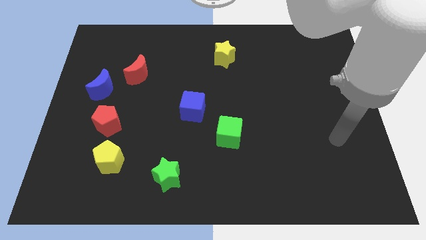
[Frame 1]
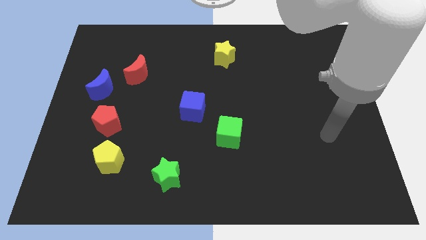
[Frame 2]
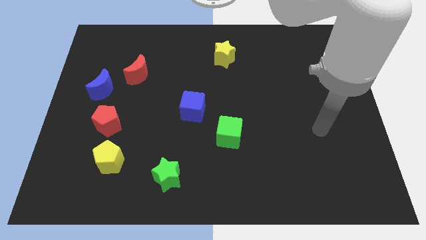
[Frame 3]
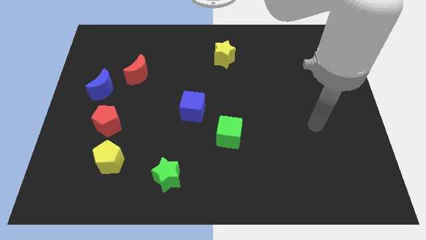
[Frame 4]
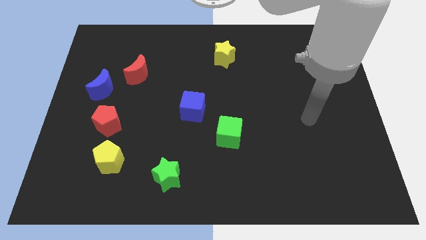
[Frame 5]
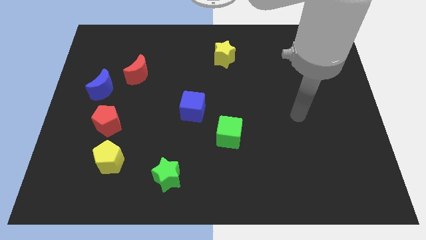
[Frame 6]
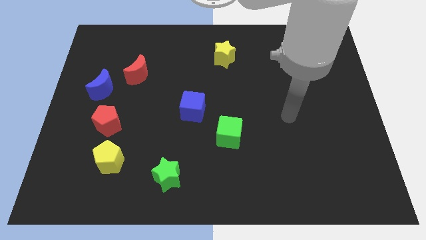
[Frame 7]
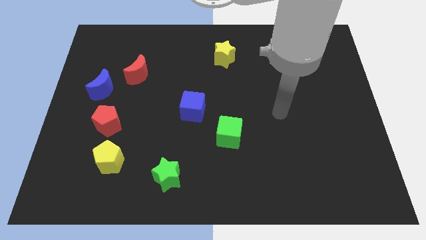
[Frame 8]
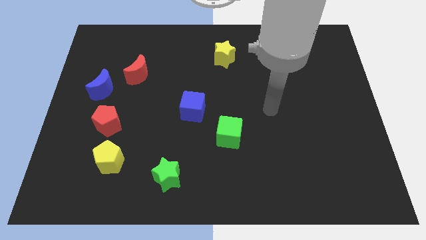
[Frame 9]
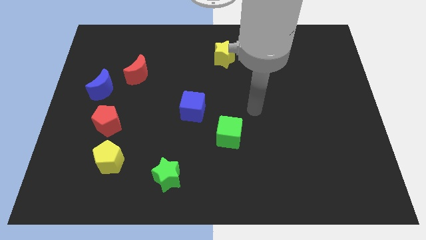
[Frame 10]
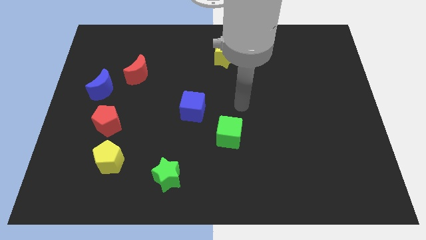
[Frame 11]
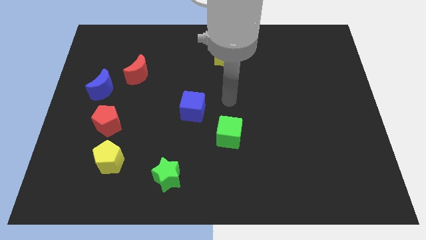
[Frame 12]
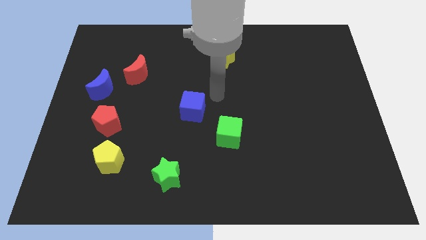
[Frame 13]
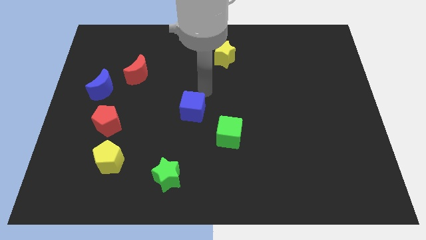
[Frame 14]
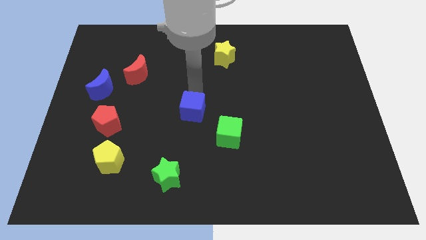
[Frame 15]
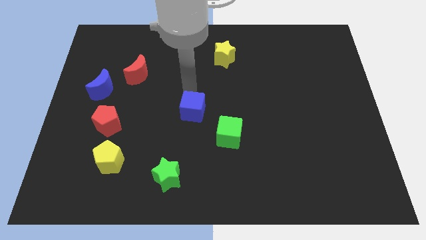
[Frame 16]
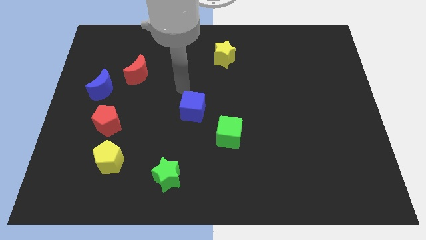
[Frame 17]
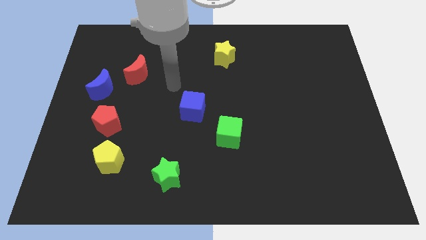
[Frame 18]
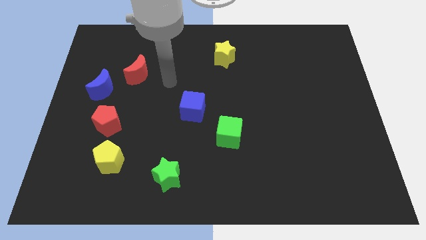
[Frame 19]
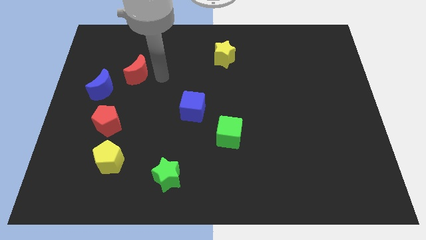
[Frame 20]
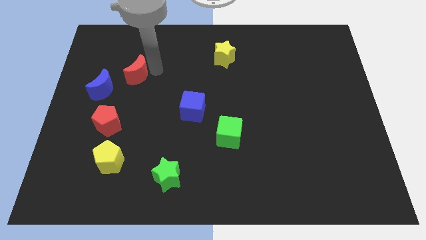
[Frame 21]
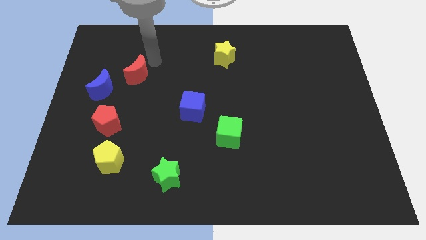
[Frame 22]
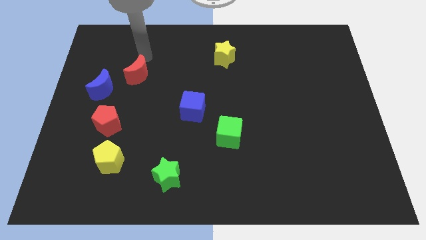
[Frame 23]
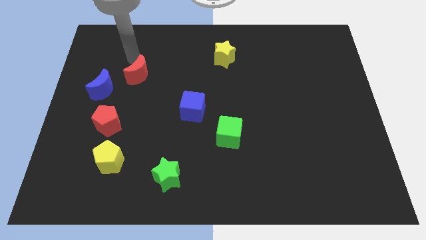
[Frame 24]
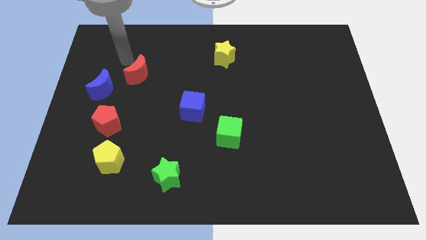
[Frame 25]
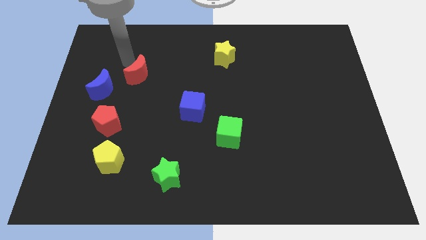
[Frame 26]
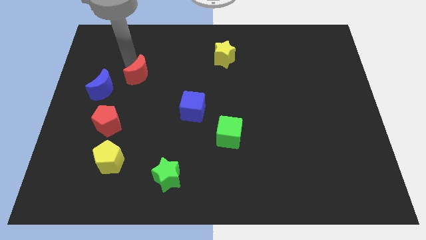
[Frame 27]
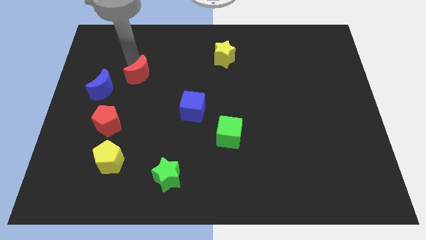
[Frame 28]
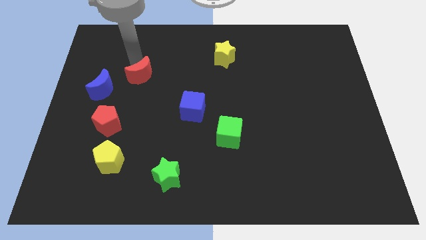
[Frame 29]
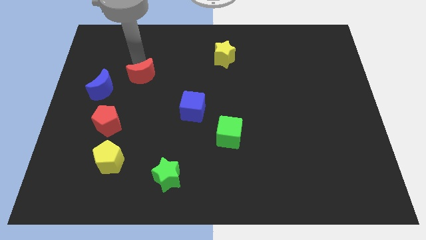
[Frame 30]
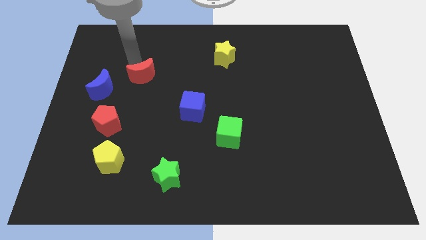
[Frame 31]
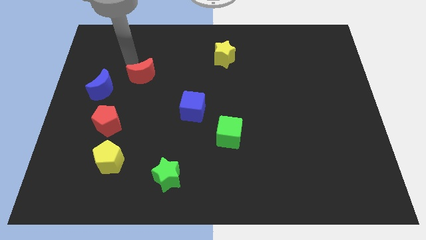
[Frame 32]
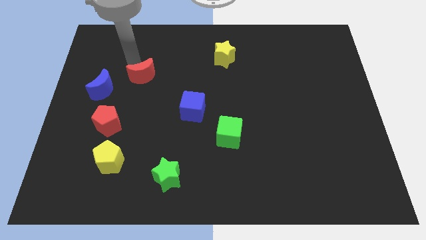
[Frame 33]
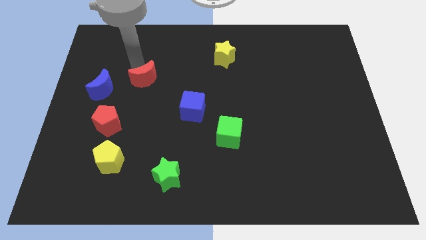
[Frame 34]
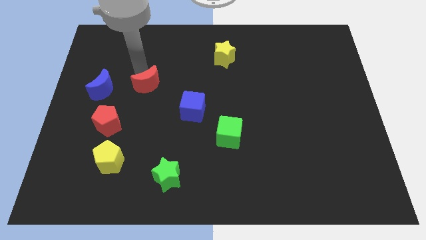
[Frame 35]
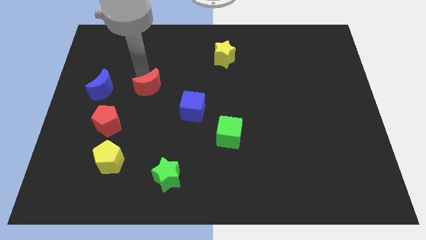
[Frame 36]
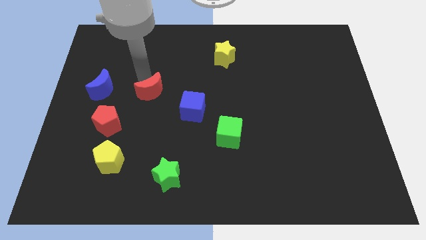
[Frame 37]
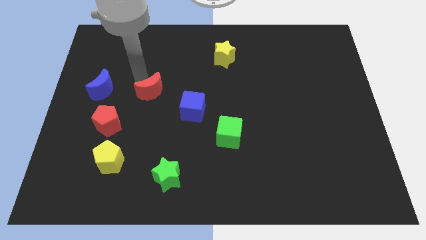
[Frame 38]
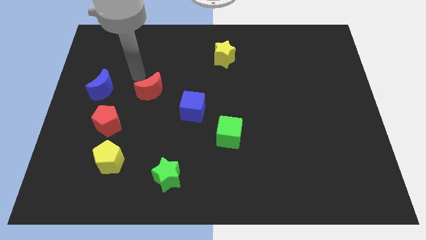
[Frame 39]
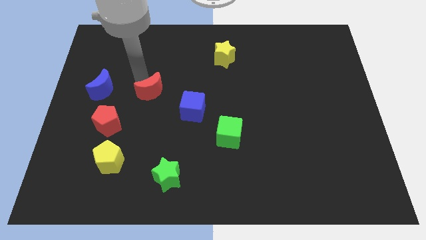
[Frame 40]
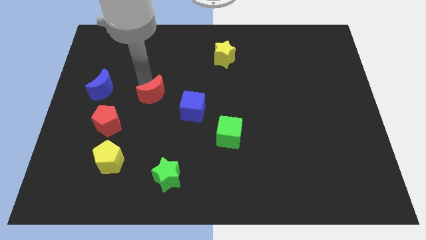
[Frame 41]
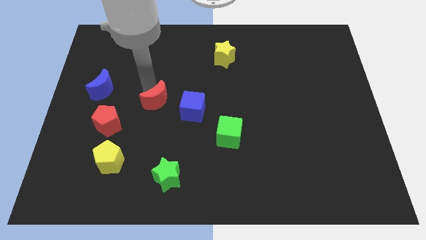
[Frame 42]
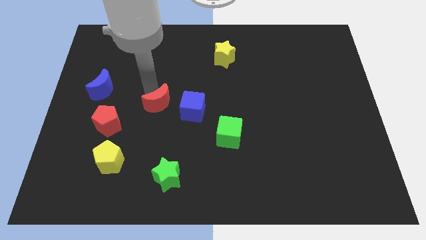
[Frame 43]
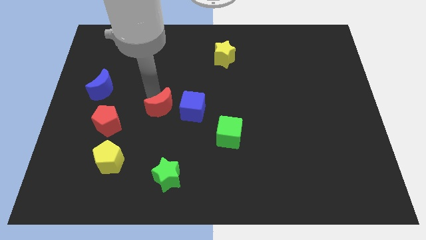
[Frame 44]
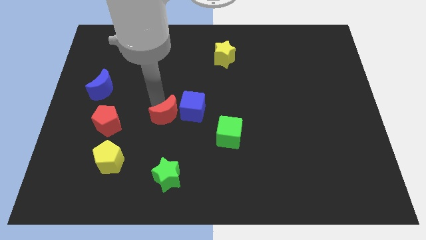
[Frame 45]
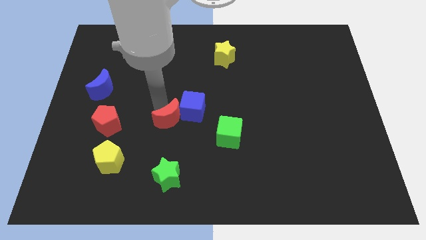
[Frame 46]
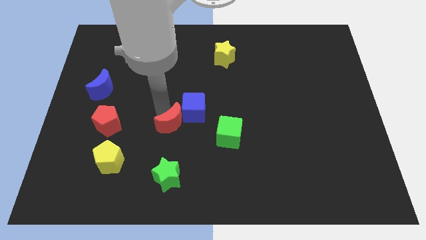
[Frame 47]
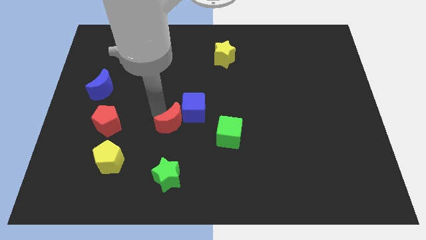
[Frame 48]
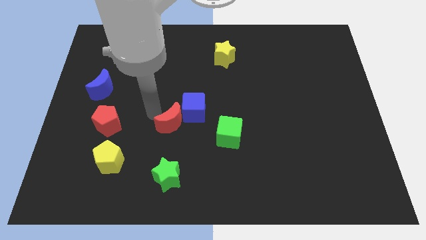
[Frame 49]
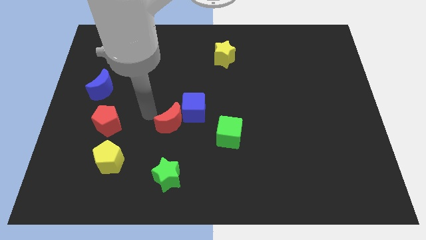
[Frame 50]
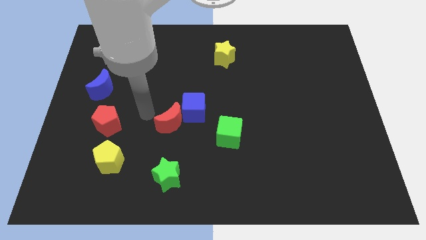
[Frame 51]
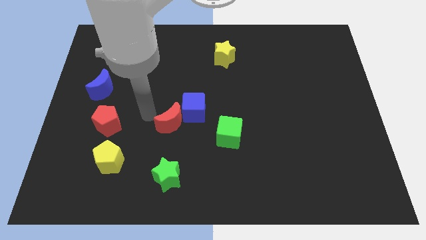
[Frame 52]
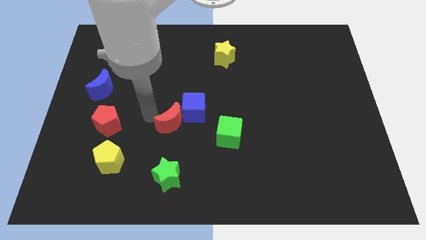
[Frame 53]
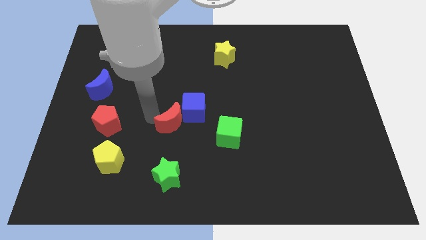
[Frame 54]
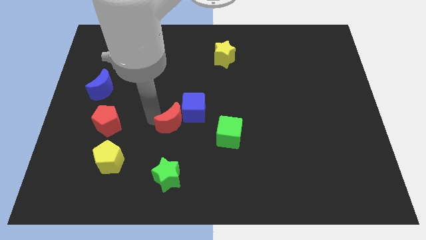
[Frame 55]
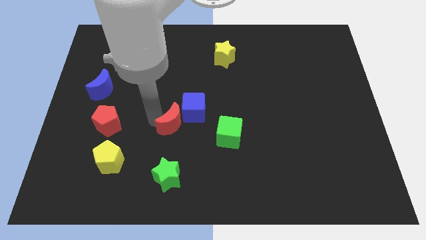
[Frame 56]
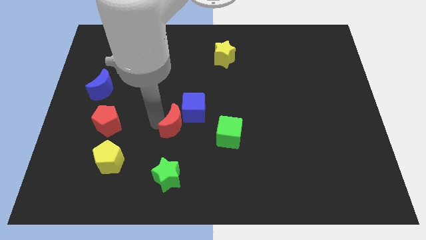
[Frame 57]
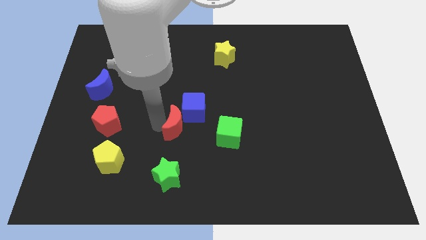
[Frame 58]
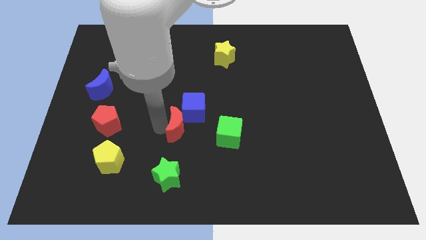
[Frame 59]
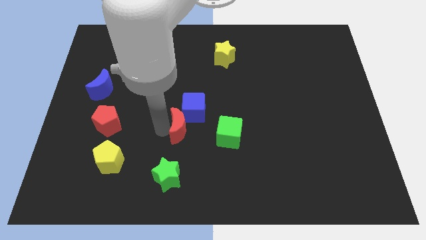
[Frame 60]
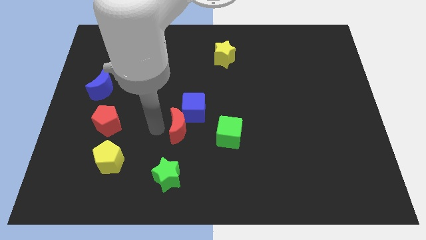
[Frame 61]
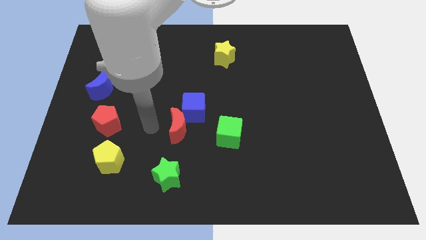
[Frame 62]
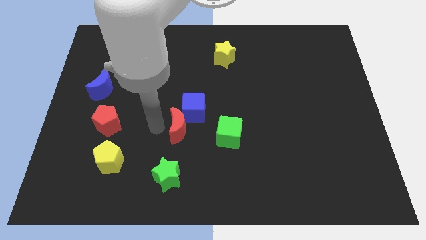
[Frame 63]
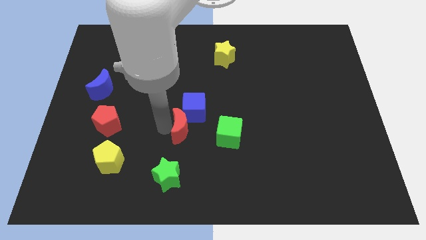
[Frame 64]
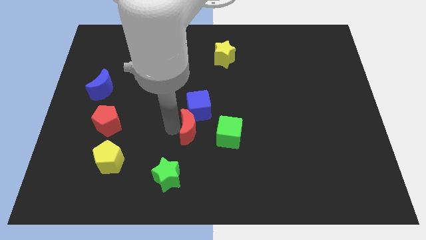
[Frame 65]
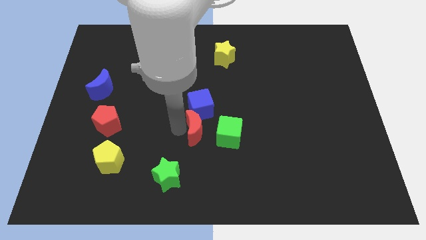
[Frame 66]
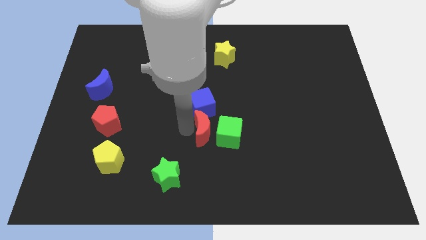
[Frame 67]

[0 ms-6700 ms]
push the red moon next to the green cube

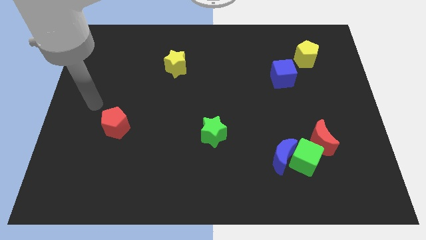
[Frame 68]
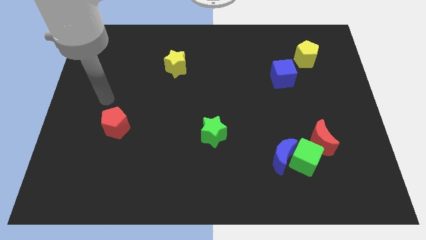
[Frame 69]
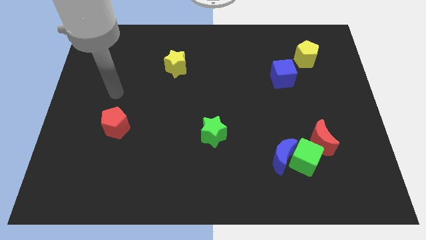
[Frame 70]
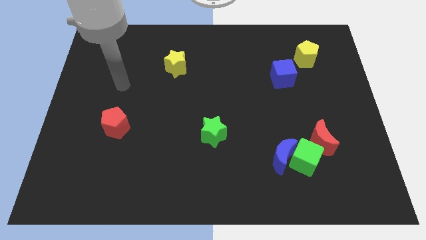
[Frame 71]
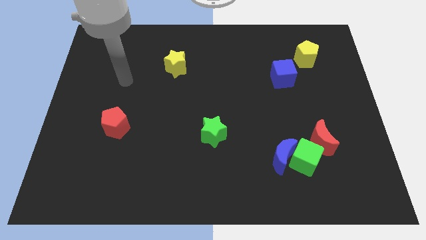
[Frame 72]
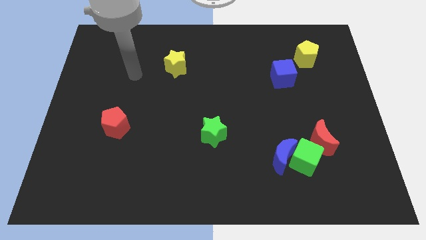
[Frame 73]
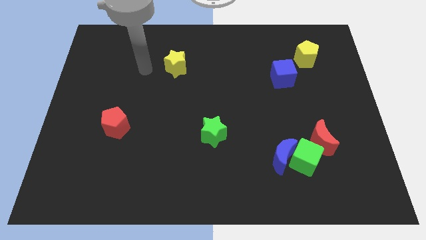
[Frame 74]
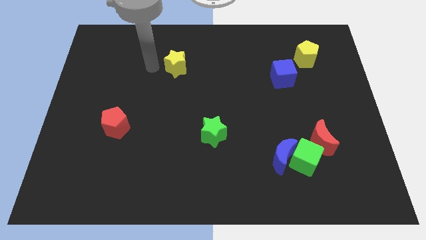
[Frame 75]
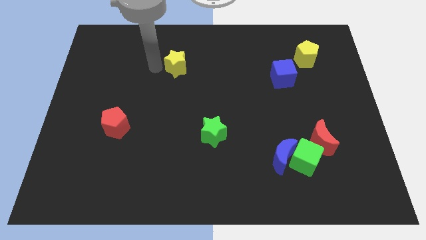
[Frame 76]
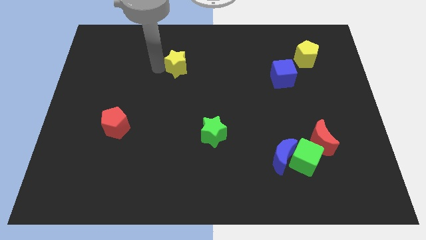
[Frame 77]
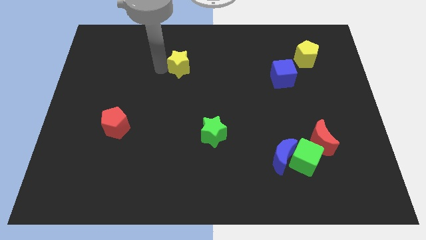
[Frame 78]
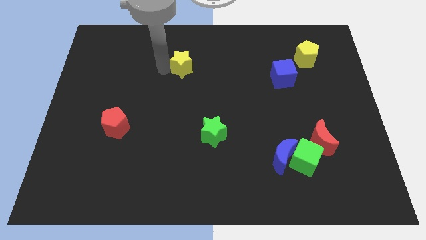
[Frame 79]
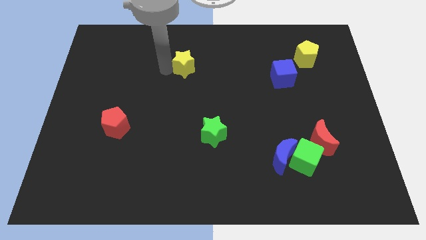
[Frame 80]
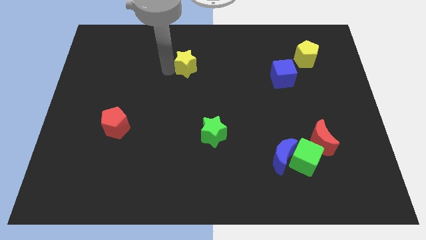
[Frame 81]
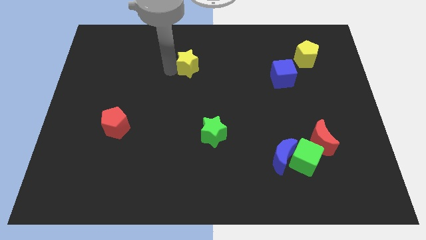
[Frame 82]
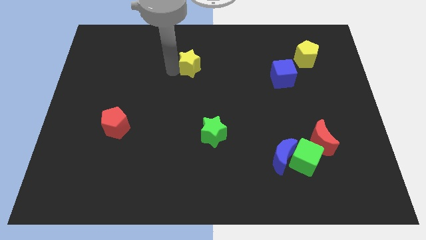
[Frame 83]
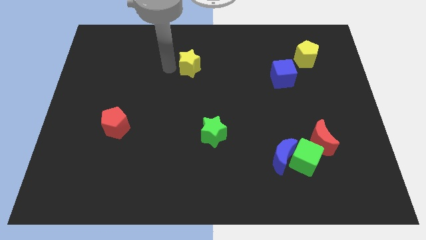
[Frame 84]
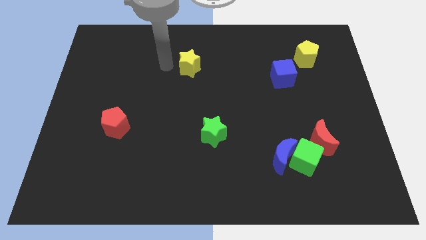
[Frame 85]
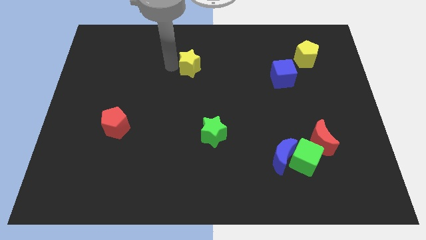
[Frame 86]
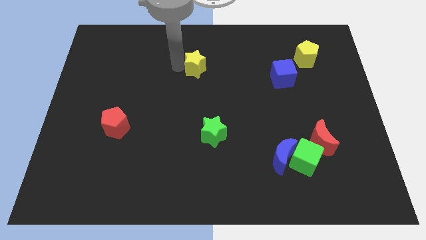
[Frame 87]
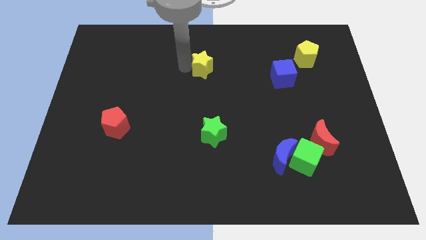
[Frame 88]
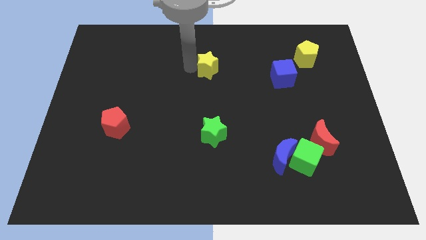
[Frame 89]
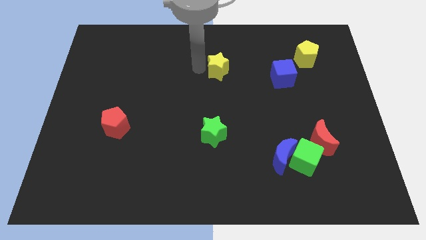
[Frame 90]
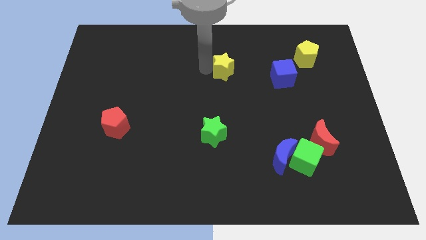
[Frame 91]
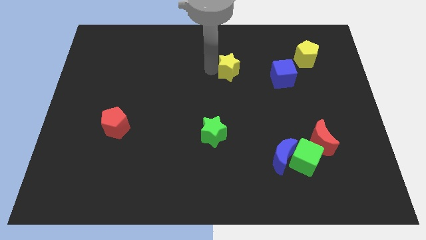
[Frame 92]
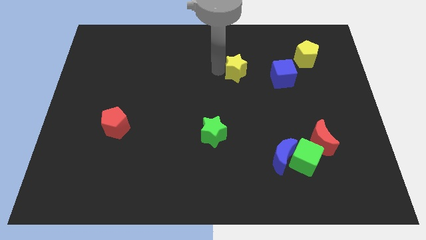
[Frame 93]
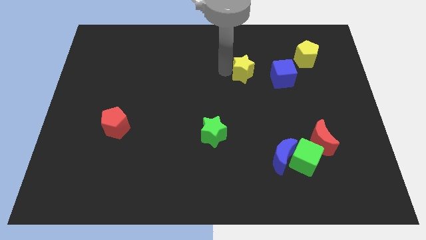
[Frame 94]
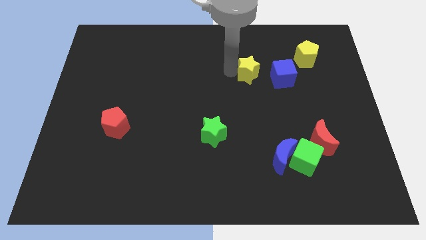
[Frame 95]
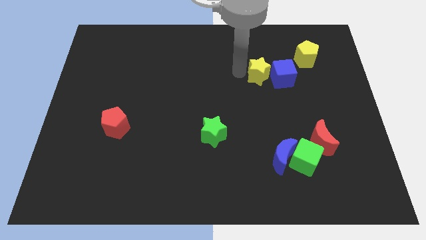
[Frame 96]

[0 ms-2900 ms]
push the yellow star to the blue cube
